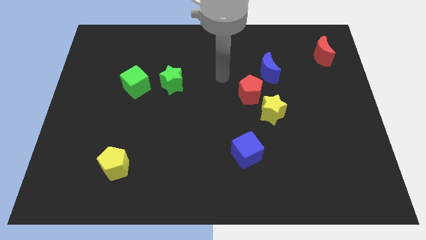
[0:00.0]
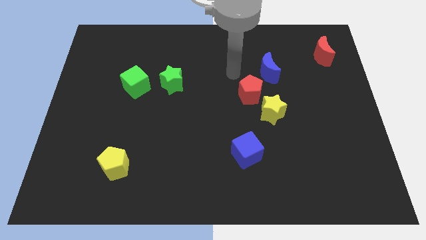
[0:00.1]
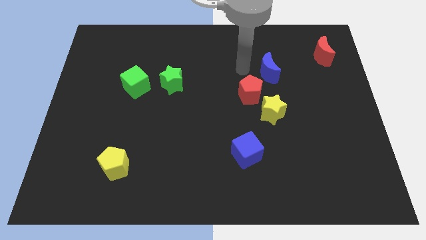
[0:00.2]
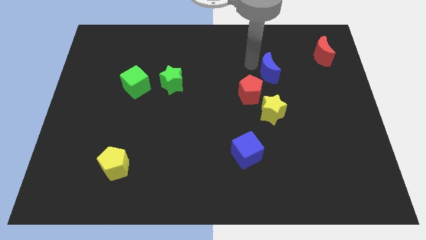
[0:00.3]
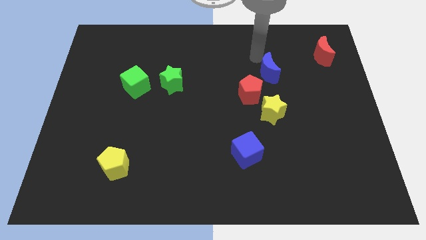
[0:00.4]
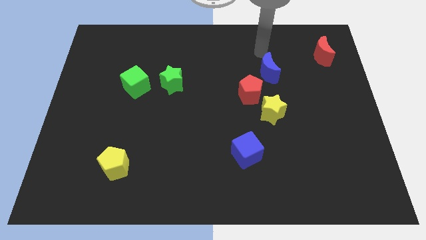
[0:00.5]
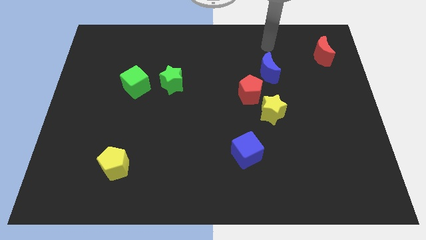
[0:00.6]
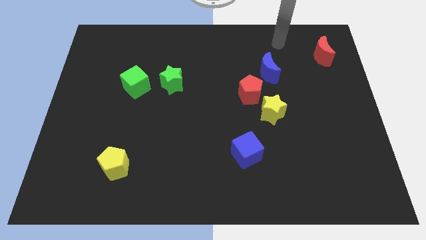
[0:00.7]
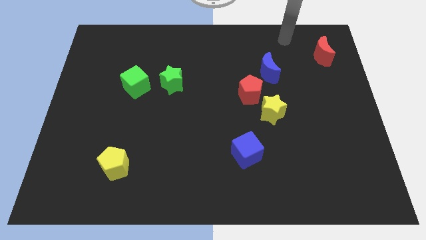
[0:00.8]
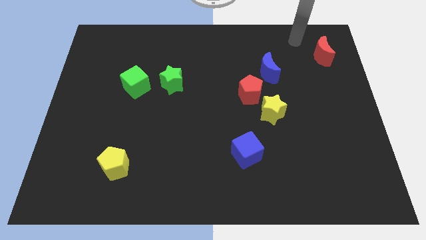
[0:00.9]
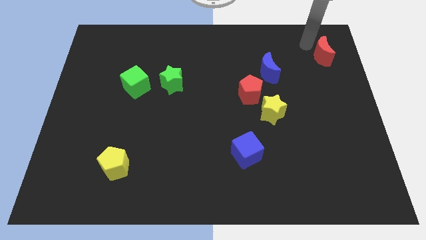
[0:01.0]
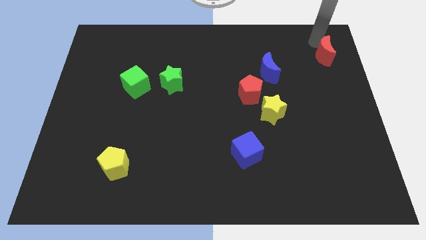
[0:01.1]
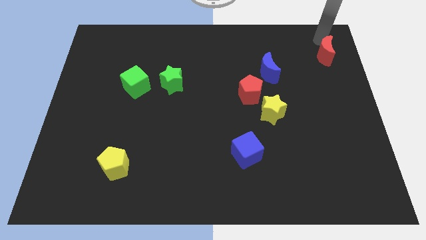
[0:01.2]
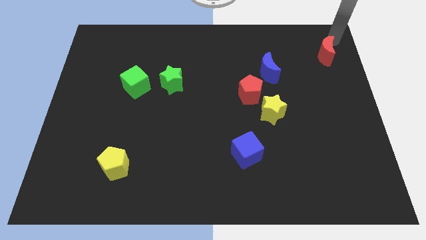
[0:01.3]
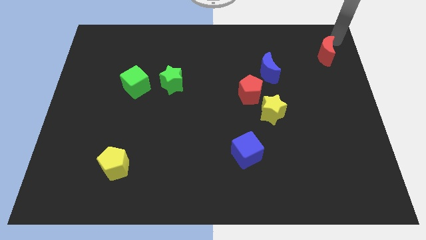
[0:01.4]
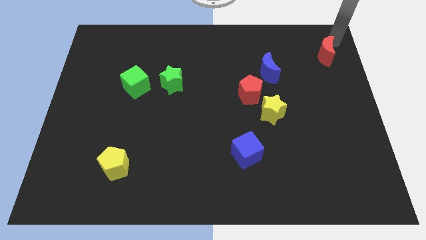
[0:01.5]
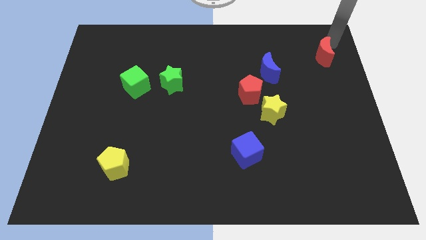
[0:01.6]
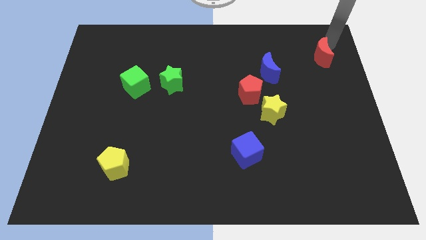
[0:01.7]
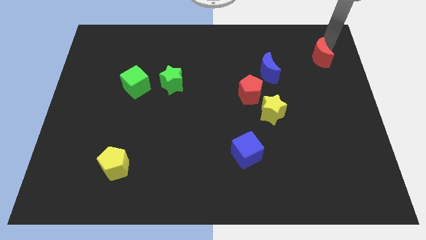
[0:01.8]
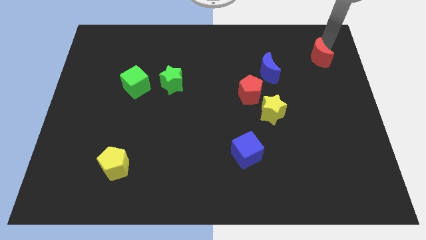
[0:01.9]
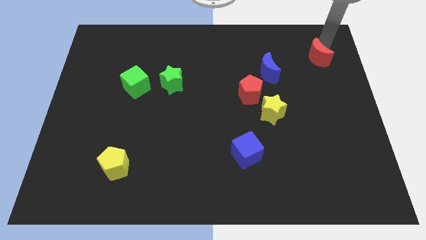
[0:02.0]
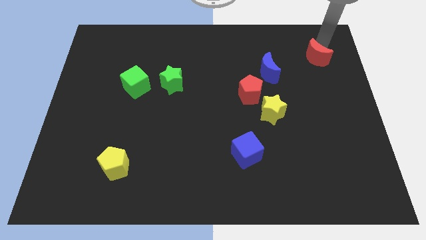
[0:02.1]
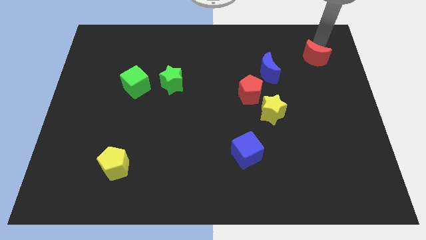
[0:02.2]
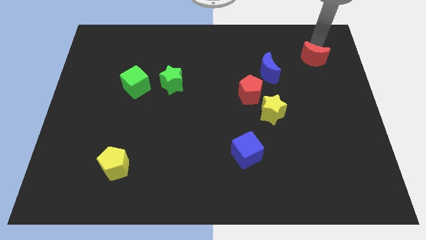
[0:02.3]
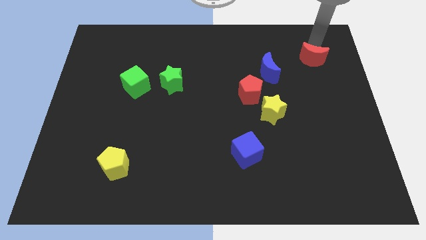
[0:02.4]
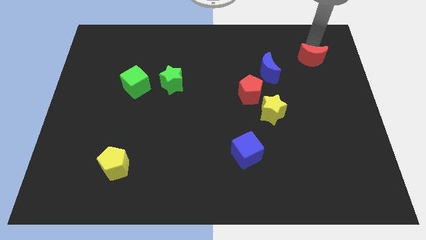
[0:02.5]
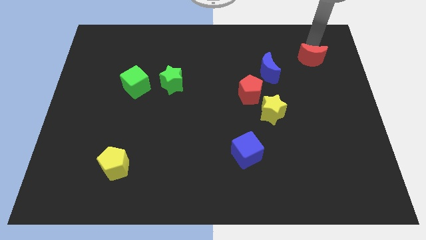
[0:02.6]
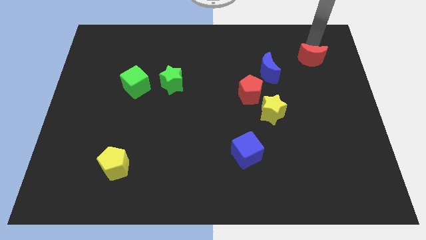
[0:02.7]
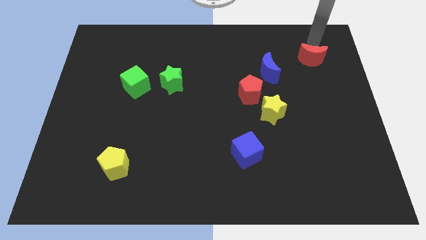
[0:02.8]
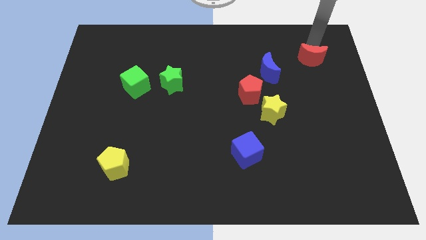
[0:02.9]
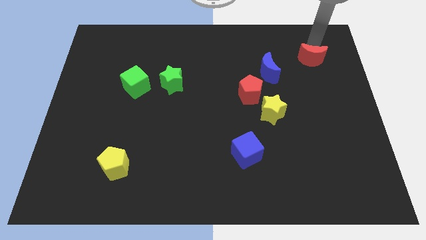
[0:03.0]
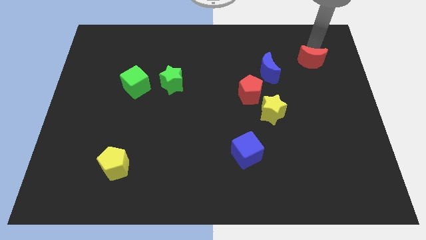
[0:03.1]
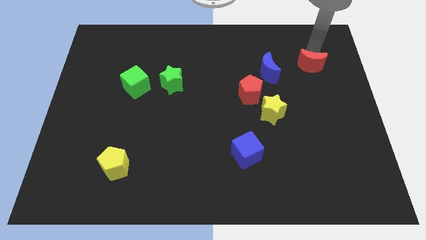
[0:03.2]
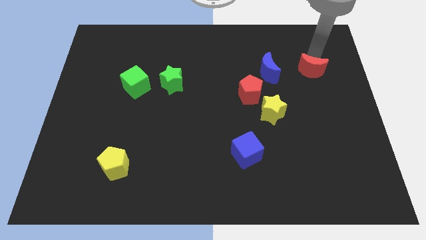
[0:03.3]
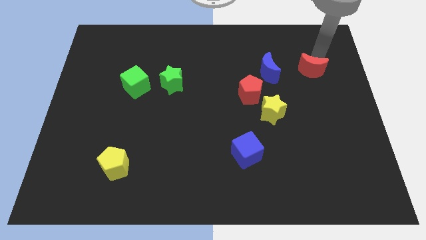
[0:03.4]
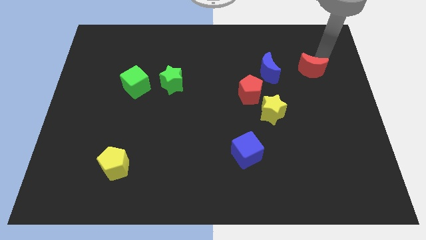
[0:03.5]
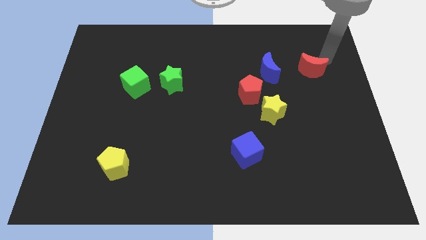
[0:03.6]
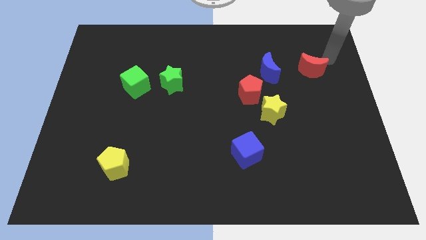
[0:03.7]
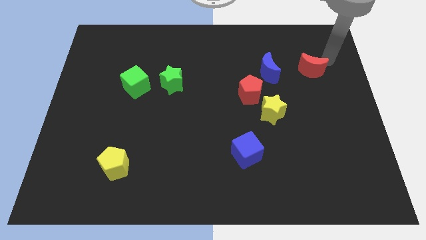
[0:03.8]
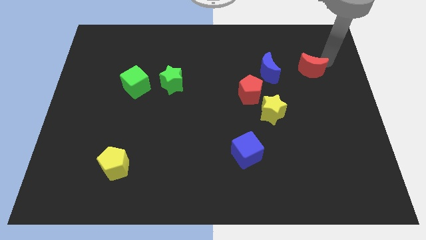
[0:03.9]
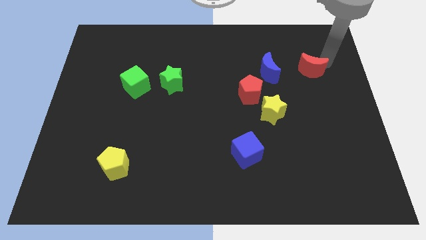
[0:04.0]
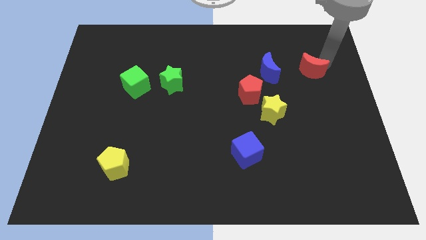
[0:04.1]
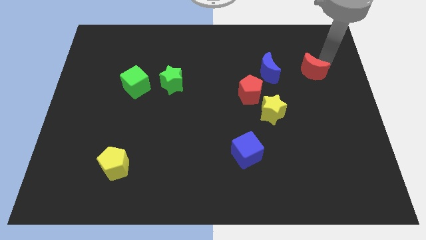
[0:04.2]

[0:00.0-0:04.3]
slide the red moon a little bit downwards and then to the left

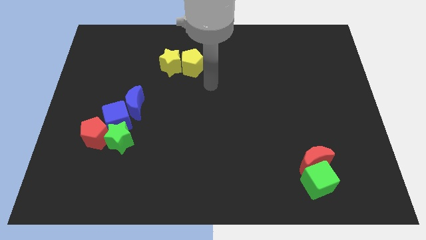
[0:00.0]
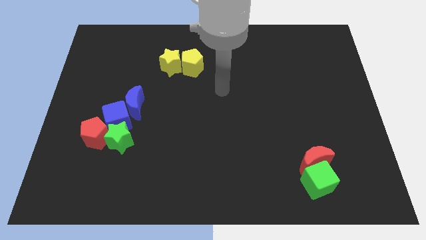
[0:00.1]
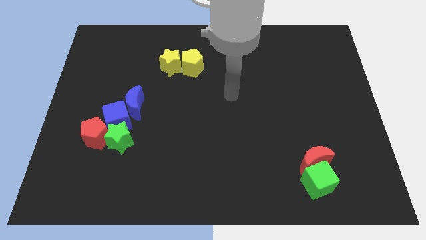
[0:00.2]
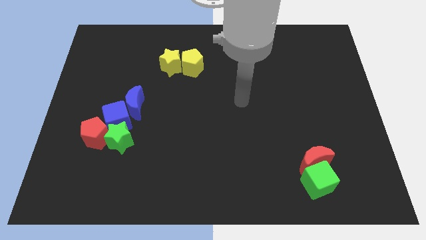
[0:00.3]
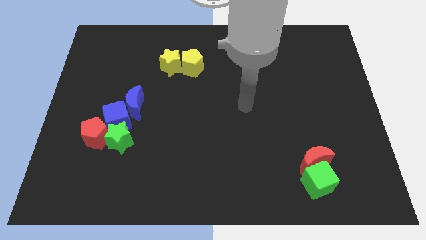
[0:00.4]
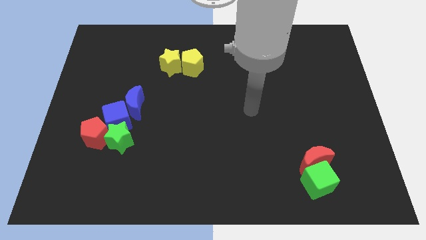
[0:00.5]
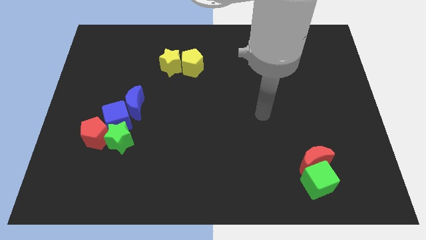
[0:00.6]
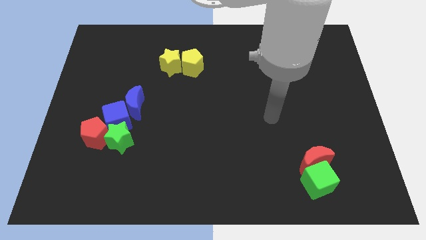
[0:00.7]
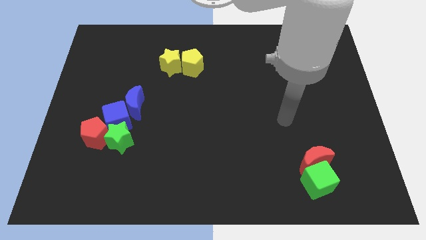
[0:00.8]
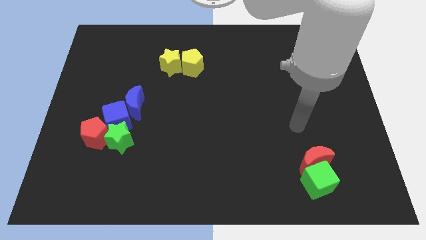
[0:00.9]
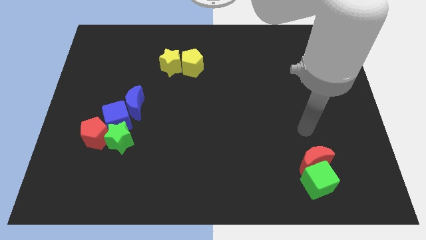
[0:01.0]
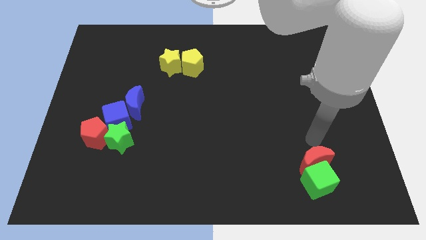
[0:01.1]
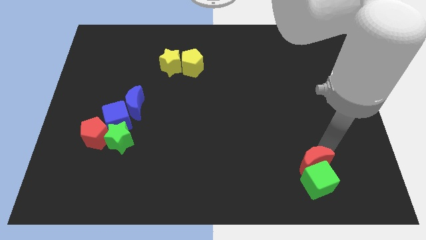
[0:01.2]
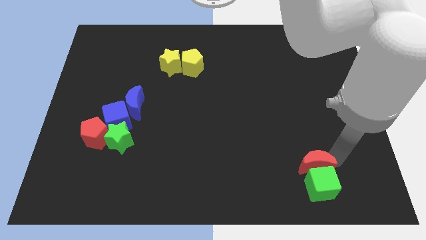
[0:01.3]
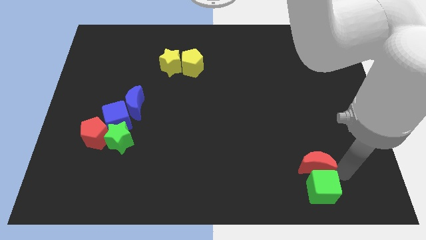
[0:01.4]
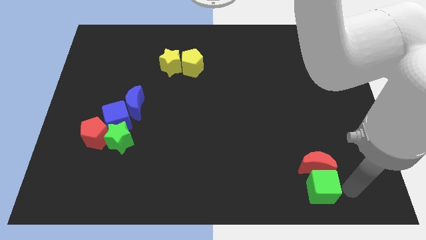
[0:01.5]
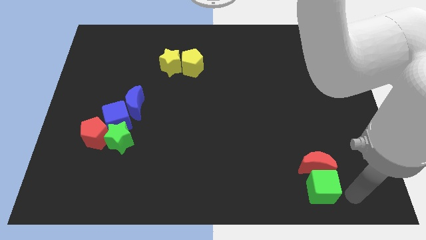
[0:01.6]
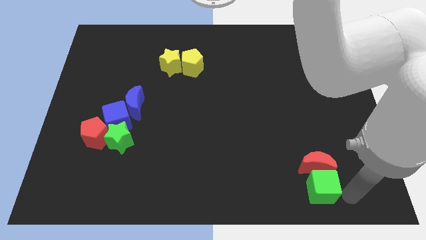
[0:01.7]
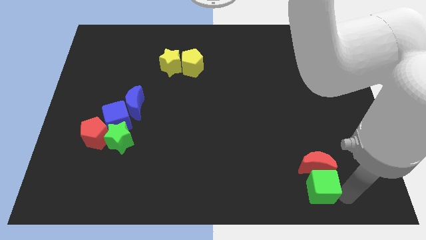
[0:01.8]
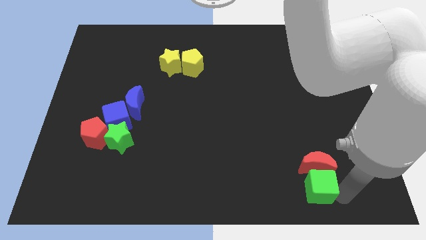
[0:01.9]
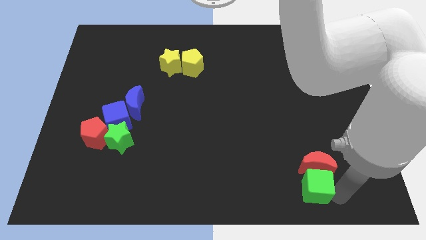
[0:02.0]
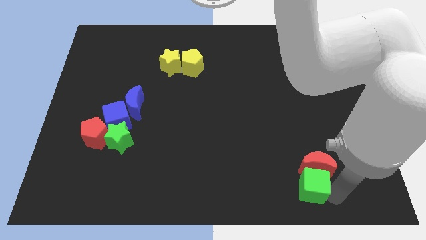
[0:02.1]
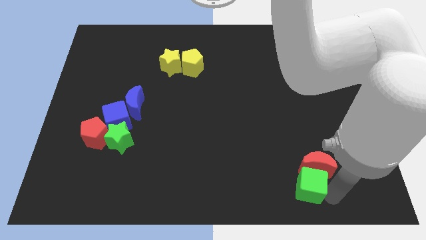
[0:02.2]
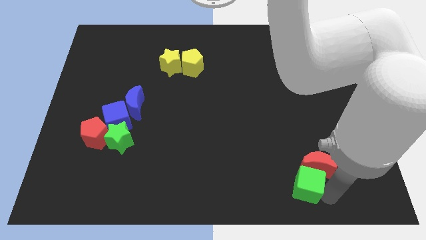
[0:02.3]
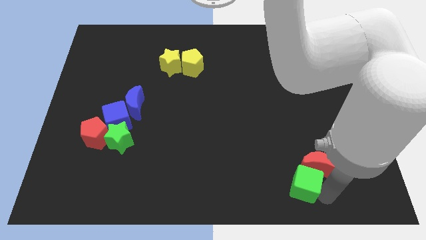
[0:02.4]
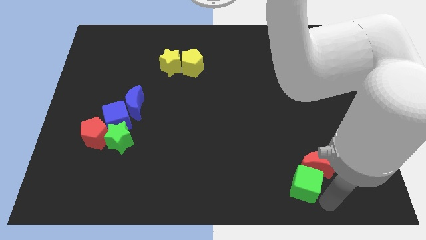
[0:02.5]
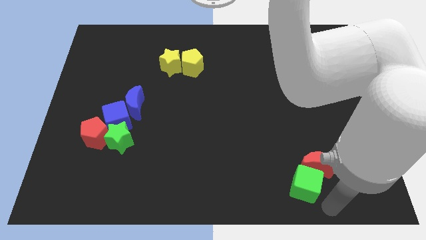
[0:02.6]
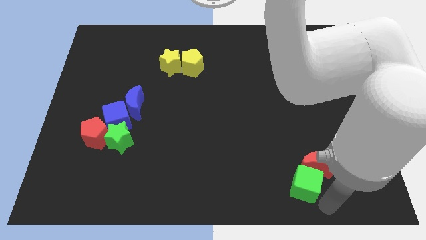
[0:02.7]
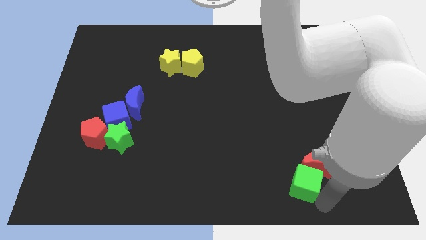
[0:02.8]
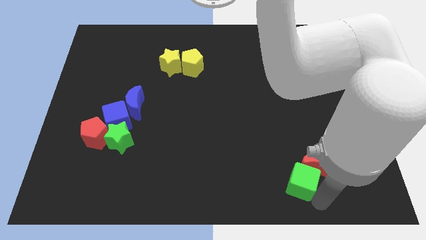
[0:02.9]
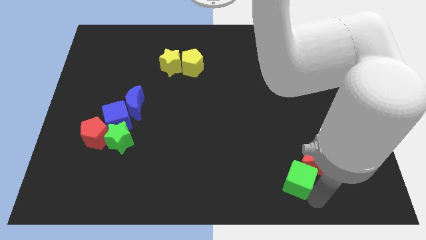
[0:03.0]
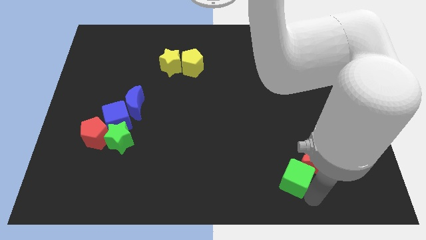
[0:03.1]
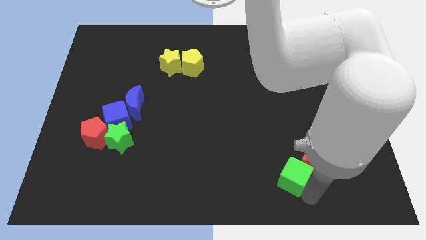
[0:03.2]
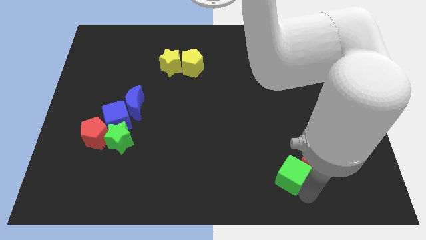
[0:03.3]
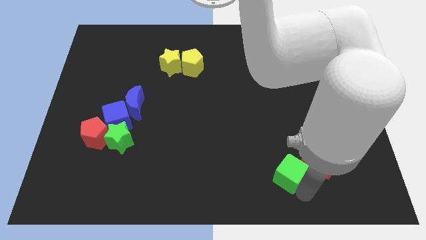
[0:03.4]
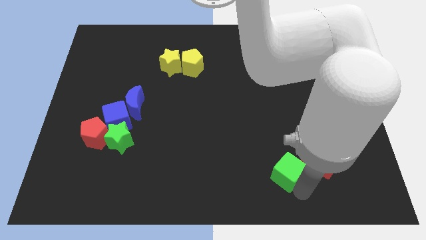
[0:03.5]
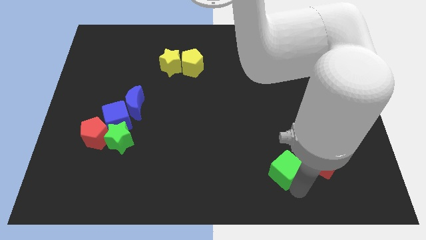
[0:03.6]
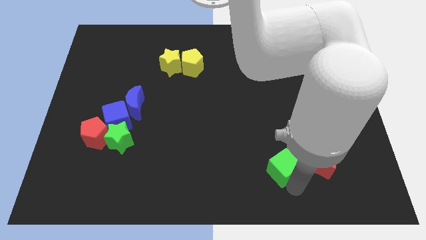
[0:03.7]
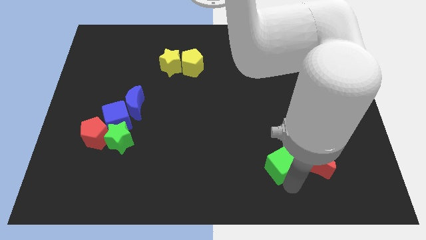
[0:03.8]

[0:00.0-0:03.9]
slightly push the green cube upwards and left diagonally
